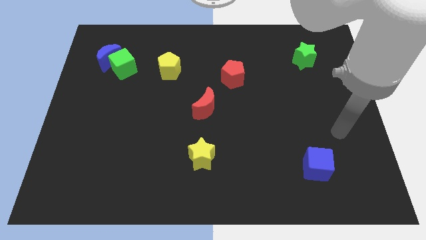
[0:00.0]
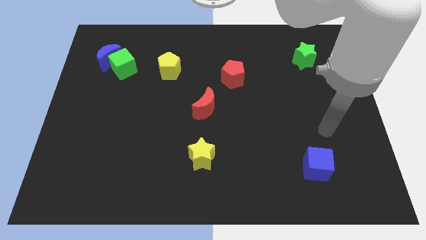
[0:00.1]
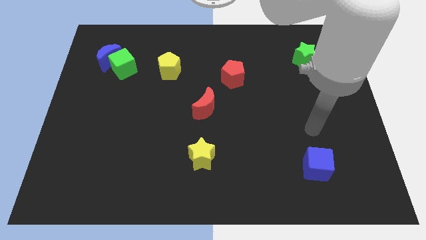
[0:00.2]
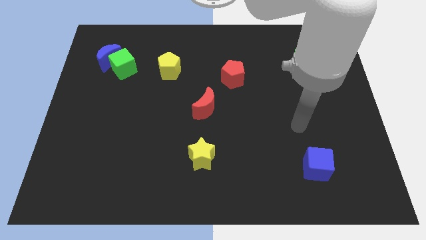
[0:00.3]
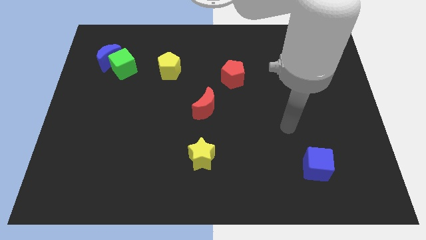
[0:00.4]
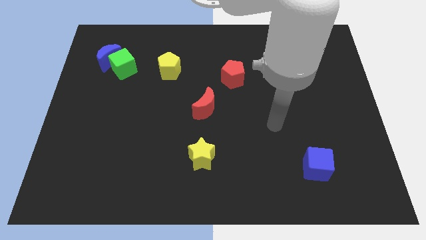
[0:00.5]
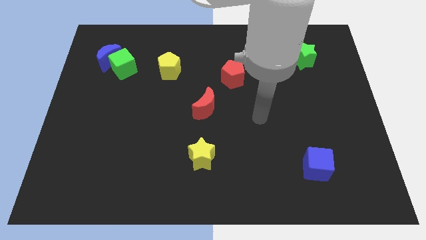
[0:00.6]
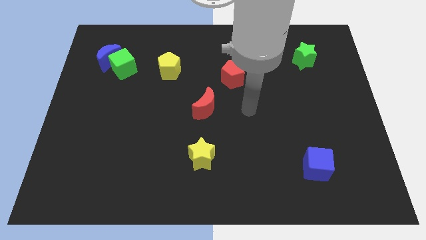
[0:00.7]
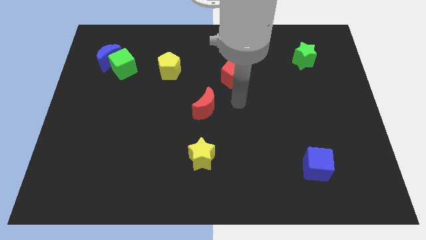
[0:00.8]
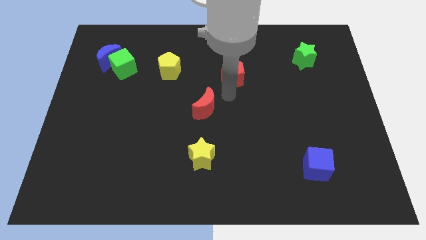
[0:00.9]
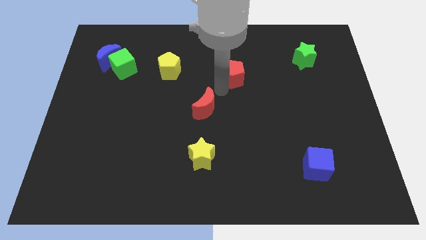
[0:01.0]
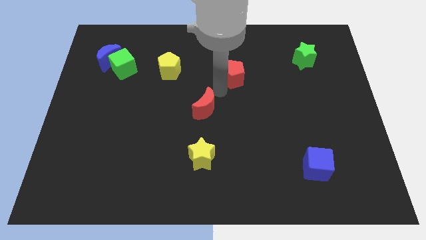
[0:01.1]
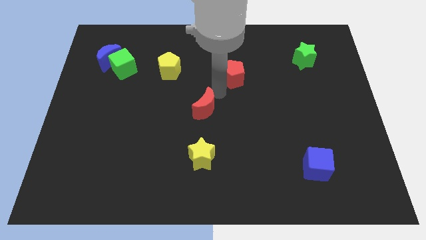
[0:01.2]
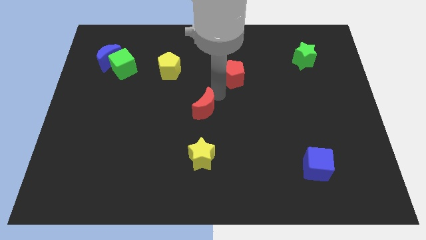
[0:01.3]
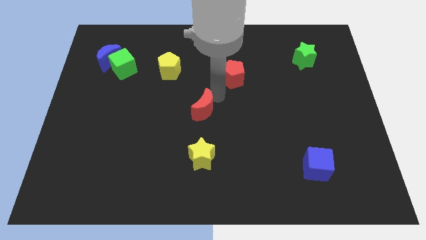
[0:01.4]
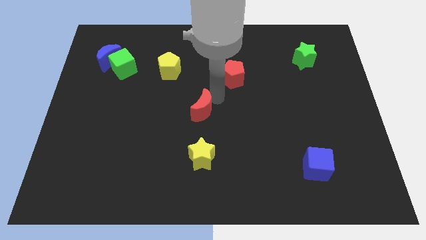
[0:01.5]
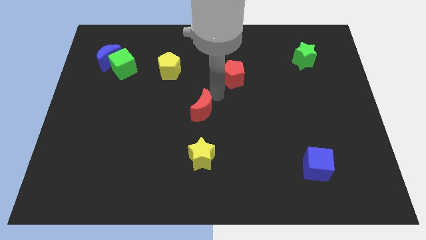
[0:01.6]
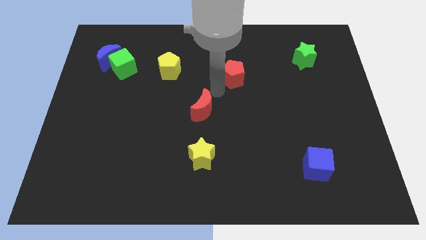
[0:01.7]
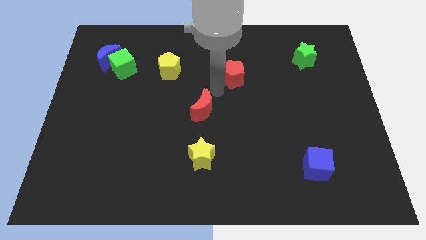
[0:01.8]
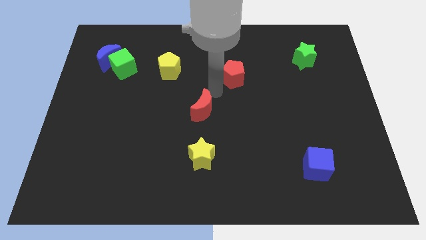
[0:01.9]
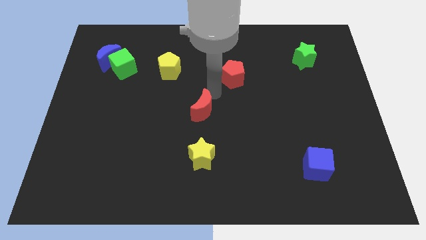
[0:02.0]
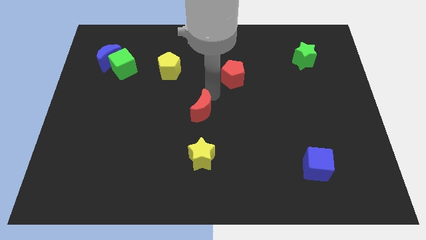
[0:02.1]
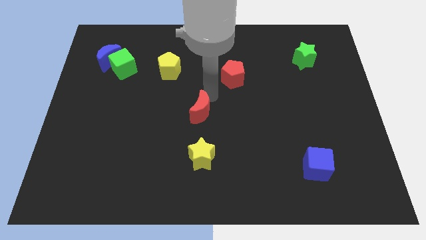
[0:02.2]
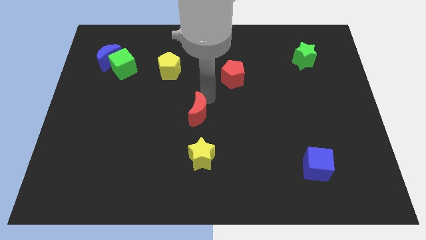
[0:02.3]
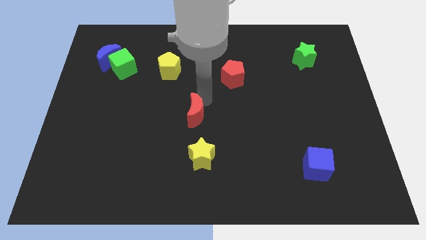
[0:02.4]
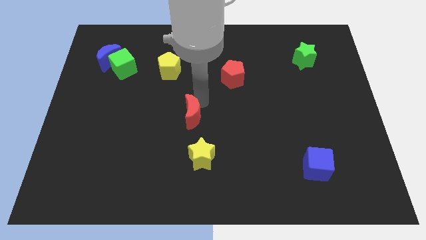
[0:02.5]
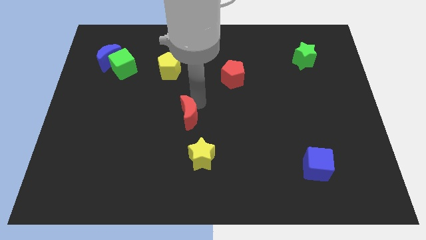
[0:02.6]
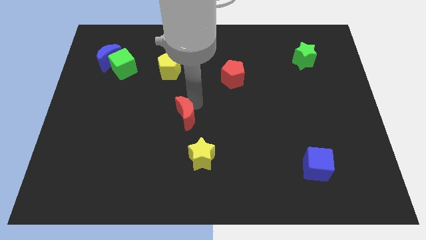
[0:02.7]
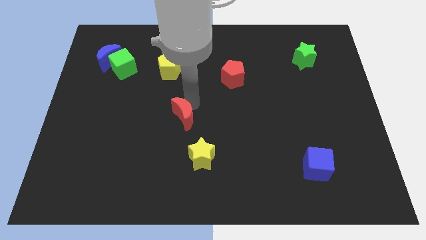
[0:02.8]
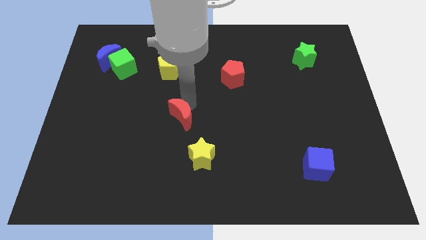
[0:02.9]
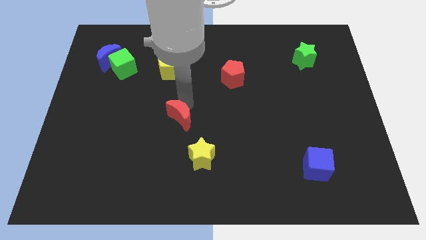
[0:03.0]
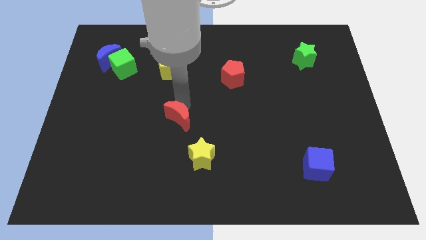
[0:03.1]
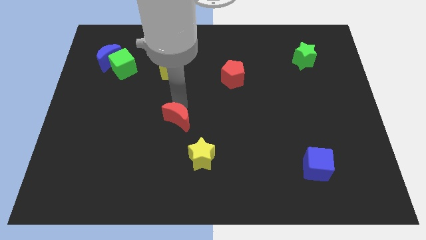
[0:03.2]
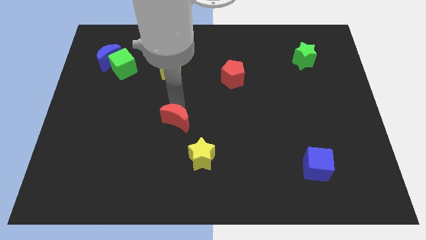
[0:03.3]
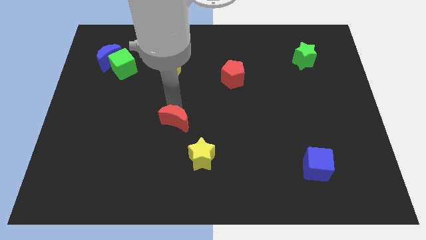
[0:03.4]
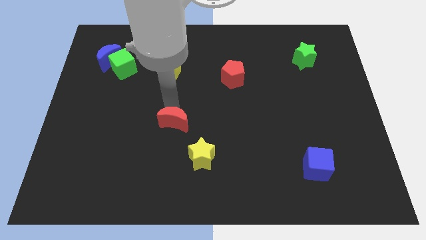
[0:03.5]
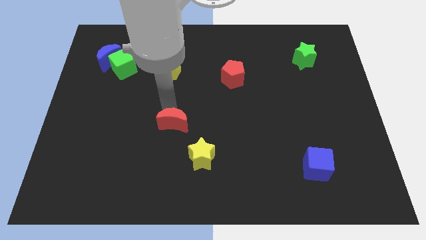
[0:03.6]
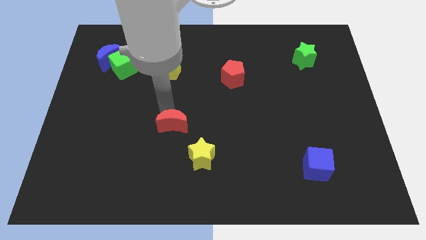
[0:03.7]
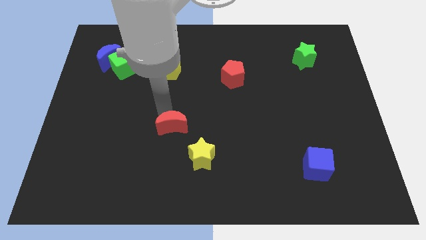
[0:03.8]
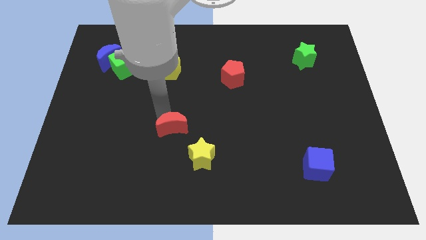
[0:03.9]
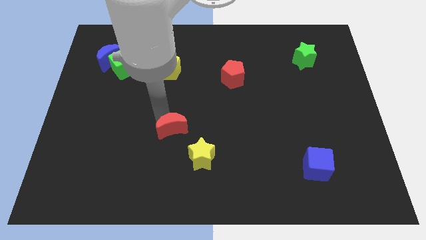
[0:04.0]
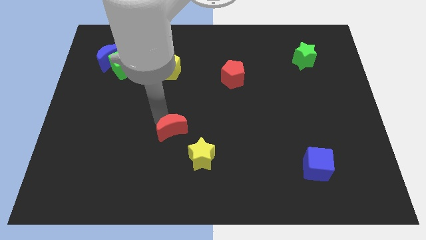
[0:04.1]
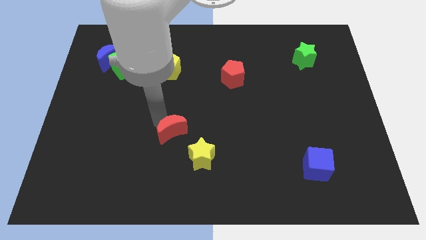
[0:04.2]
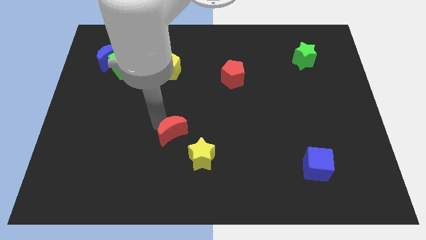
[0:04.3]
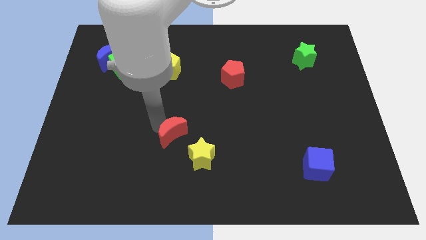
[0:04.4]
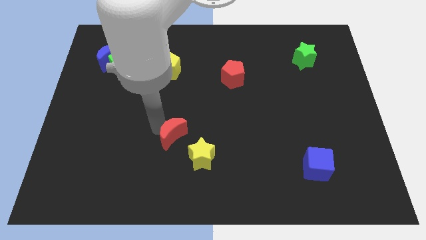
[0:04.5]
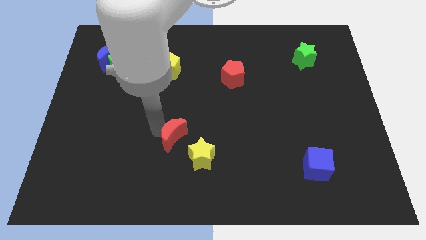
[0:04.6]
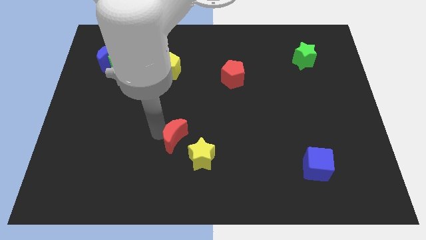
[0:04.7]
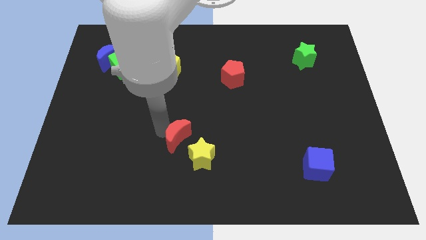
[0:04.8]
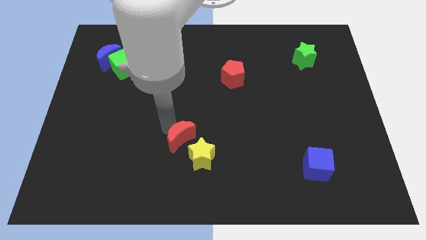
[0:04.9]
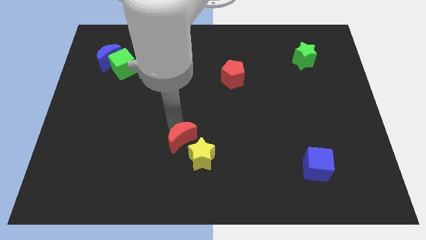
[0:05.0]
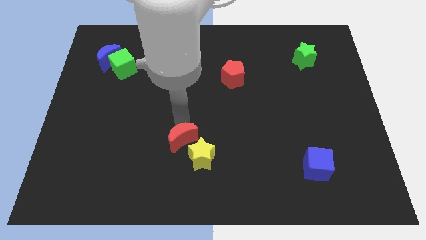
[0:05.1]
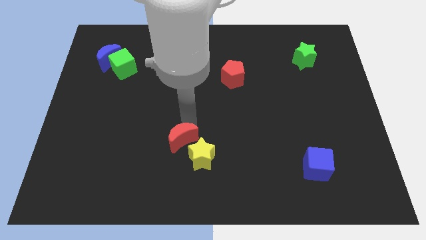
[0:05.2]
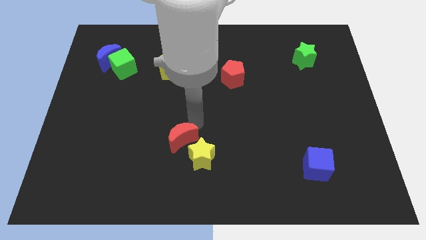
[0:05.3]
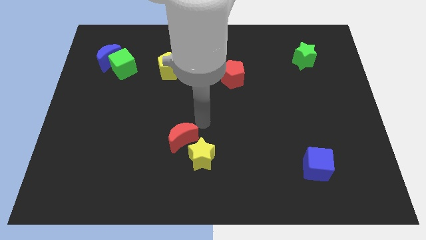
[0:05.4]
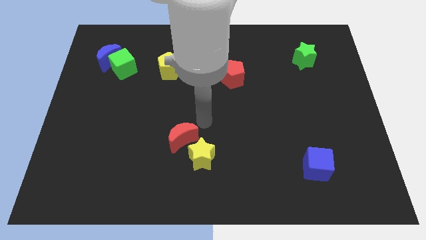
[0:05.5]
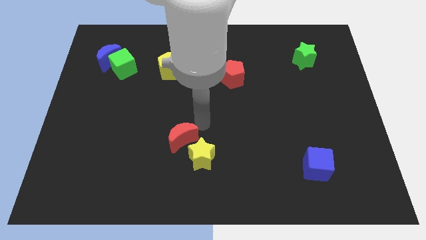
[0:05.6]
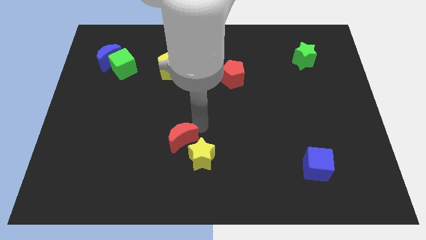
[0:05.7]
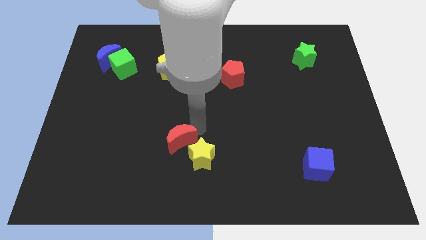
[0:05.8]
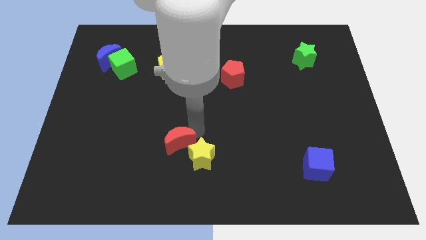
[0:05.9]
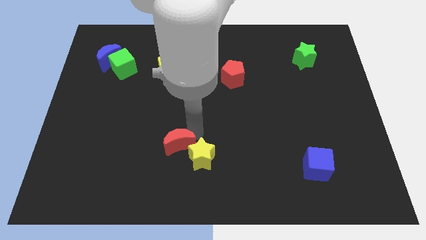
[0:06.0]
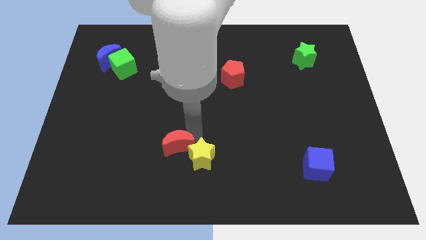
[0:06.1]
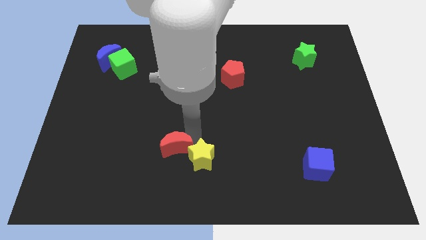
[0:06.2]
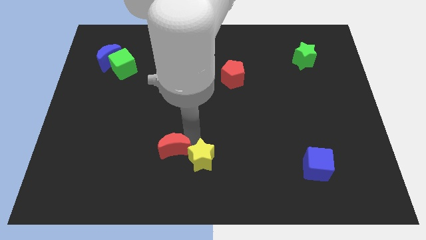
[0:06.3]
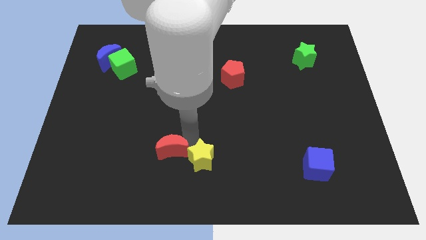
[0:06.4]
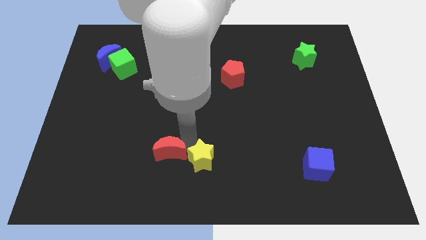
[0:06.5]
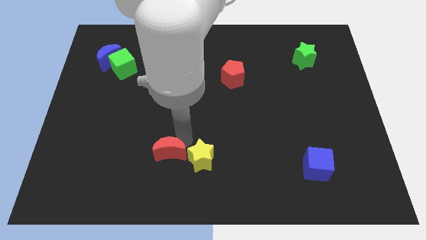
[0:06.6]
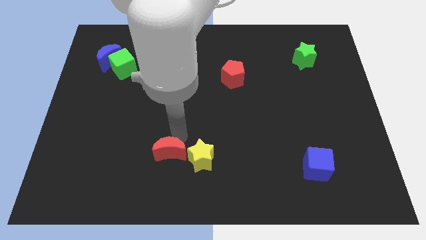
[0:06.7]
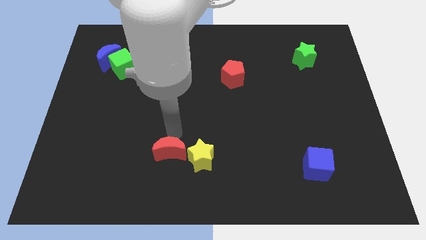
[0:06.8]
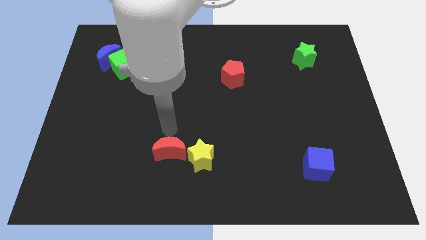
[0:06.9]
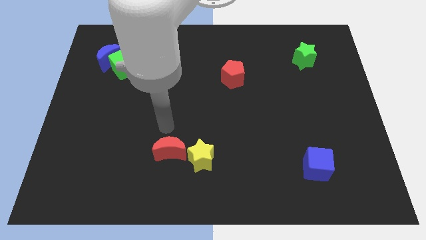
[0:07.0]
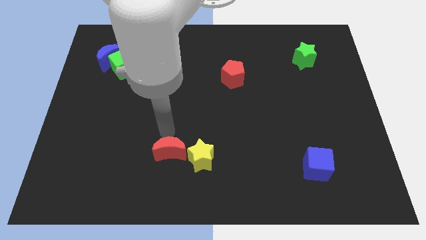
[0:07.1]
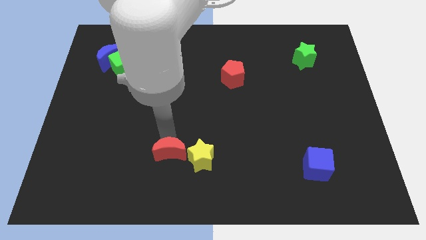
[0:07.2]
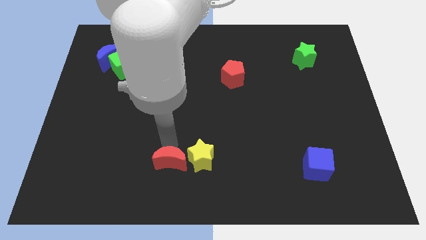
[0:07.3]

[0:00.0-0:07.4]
put the red moon diagonally down and to the left of the yellow star
